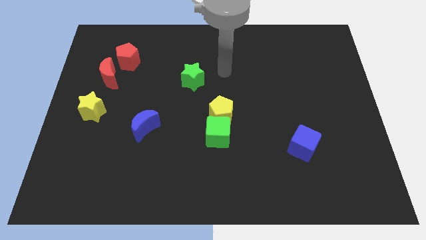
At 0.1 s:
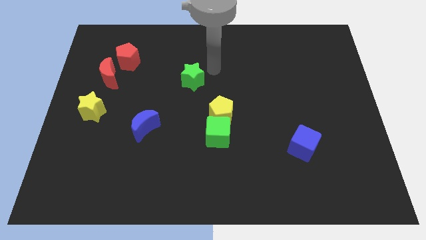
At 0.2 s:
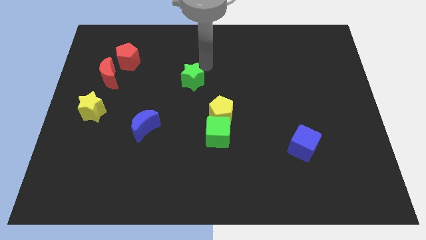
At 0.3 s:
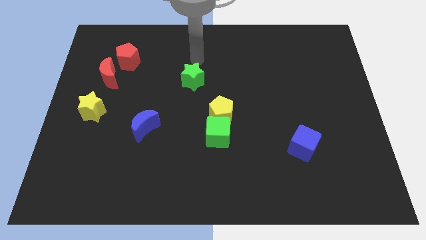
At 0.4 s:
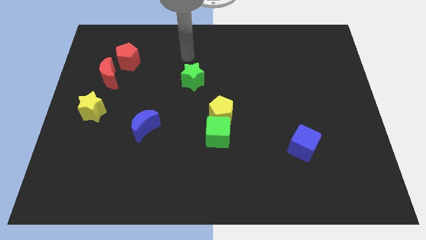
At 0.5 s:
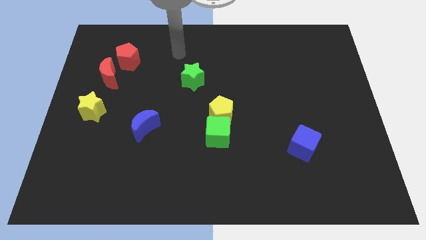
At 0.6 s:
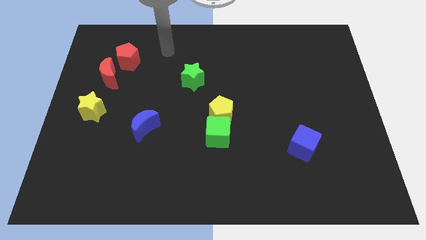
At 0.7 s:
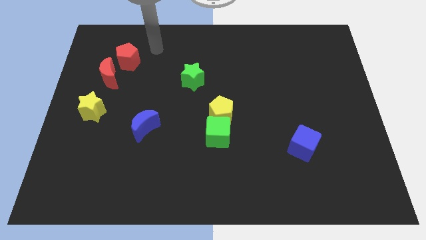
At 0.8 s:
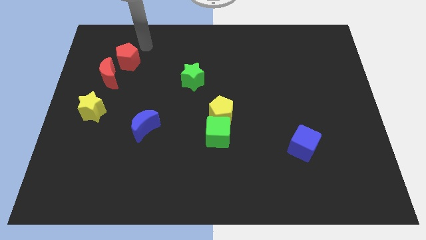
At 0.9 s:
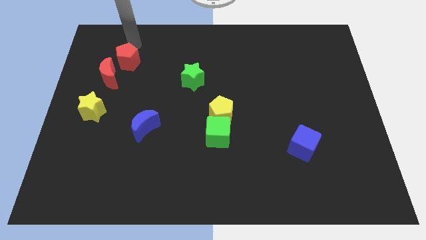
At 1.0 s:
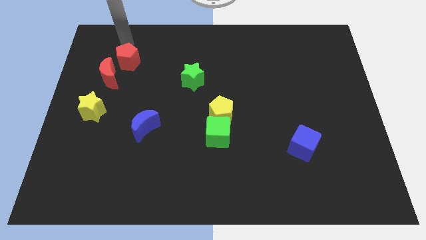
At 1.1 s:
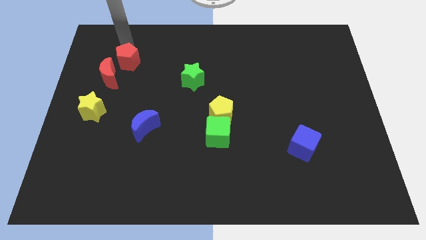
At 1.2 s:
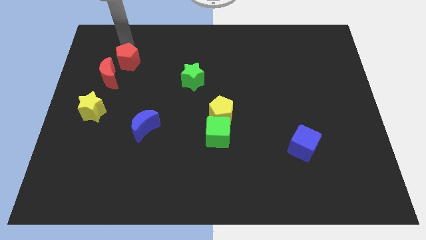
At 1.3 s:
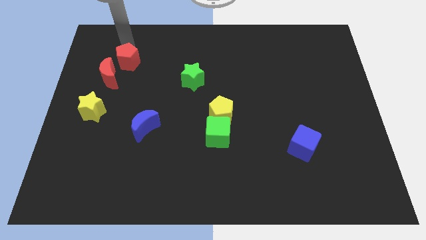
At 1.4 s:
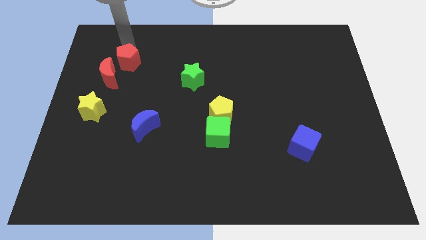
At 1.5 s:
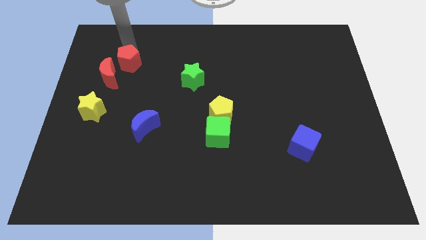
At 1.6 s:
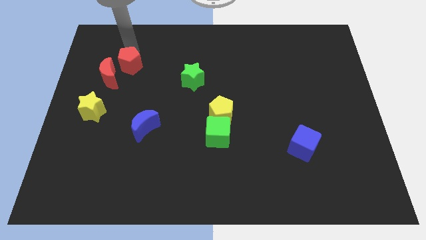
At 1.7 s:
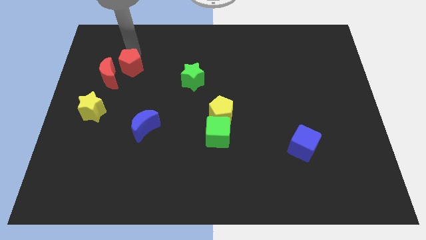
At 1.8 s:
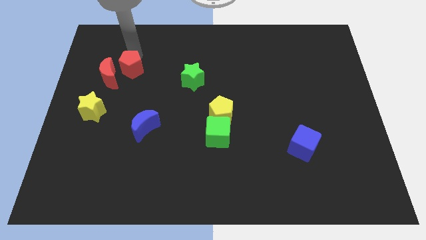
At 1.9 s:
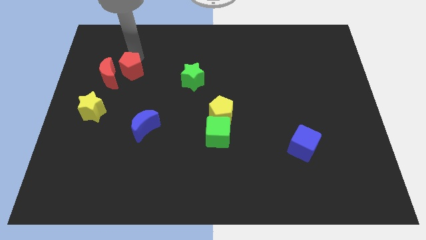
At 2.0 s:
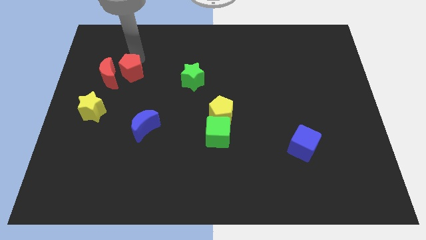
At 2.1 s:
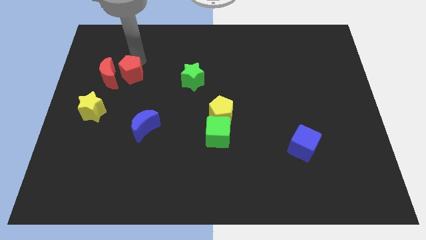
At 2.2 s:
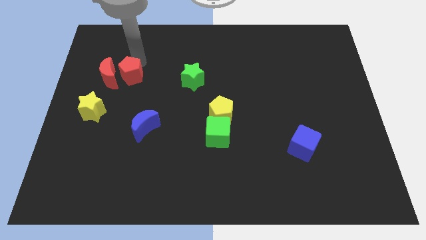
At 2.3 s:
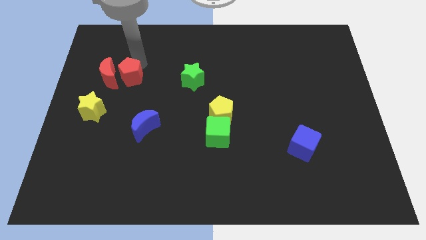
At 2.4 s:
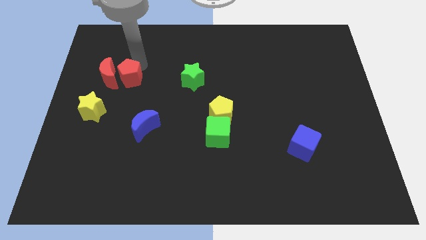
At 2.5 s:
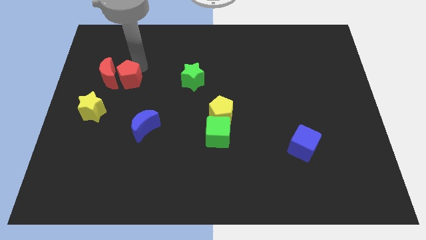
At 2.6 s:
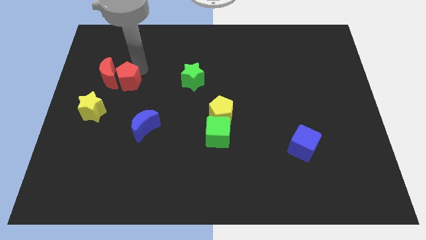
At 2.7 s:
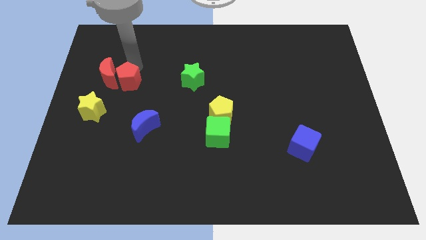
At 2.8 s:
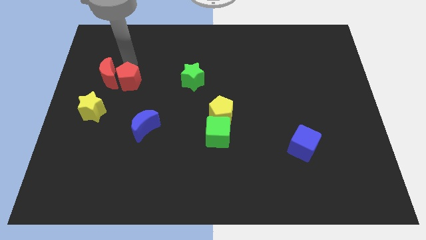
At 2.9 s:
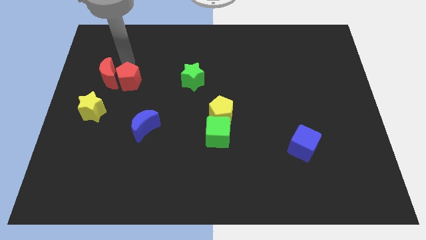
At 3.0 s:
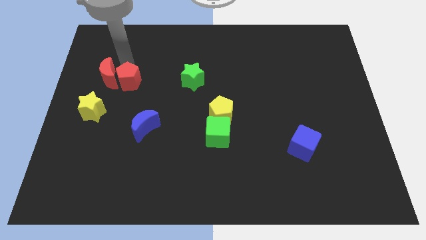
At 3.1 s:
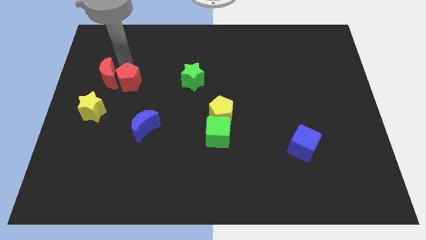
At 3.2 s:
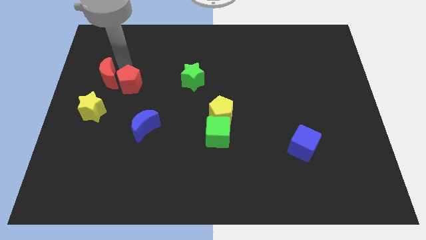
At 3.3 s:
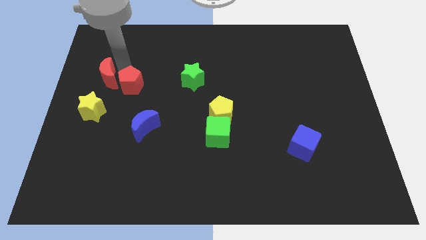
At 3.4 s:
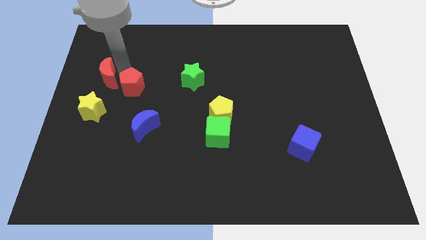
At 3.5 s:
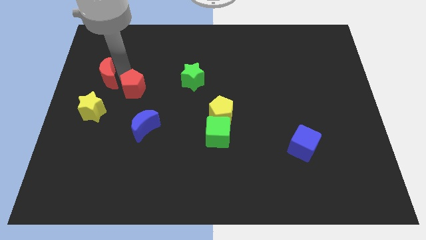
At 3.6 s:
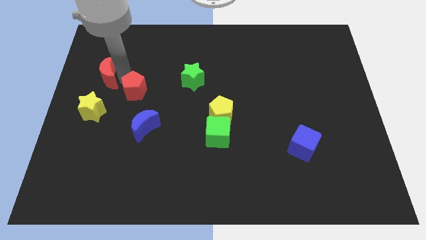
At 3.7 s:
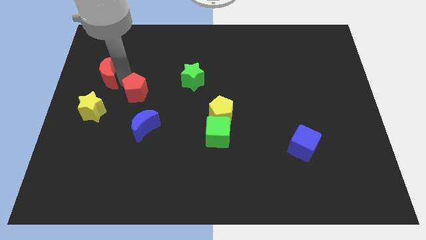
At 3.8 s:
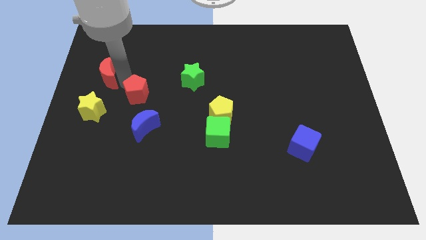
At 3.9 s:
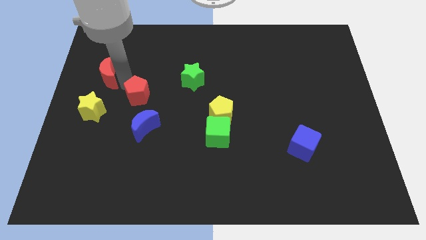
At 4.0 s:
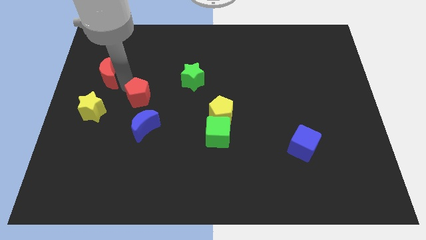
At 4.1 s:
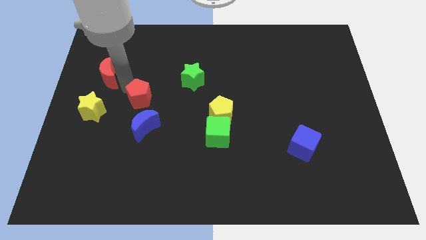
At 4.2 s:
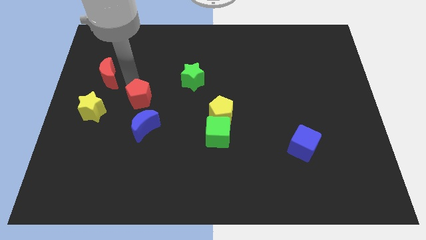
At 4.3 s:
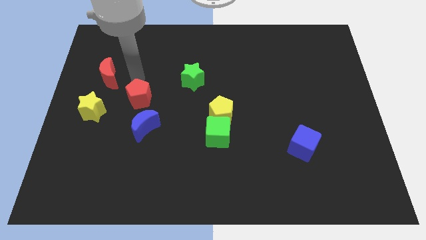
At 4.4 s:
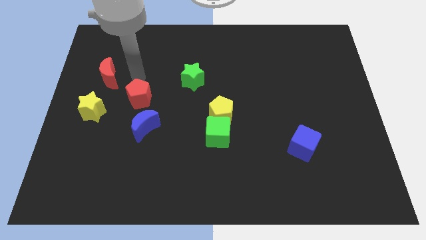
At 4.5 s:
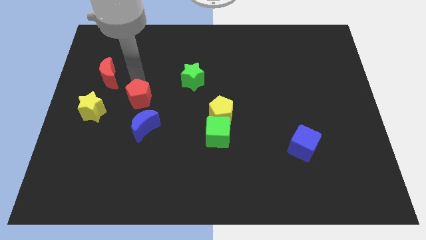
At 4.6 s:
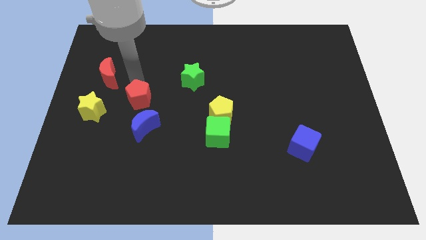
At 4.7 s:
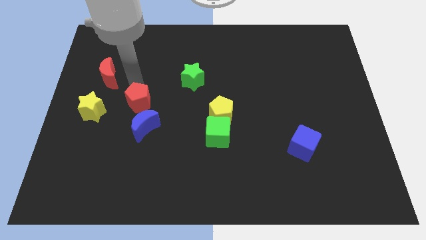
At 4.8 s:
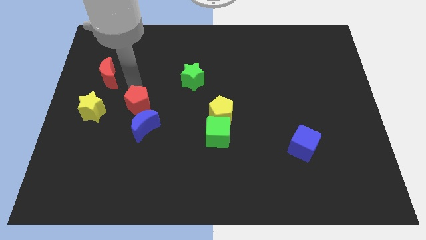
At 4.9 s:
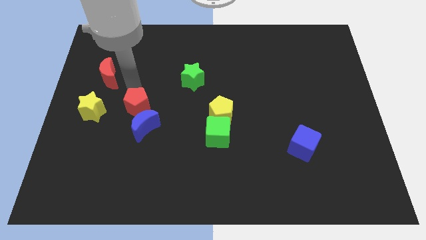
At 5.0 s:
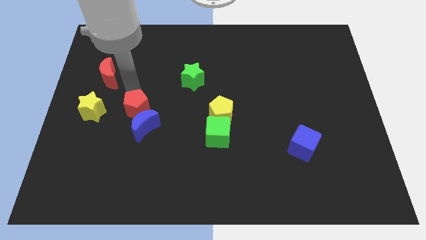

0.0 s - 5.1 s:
push the red pentagon to the blue moon

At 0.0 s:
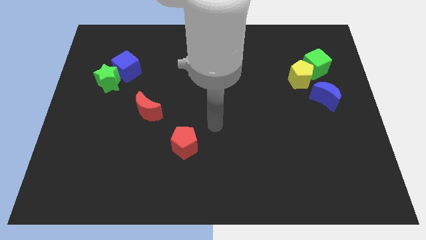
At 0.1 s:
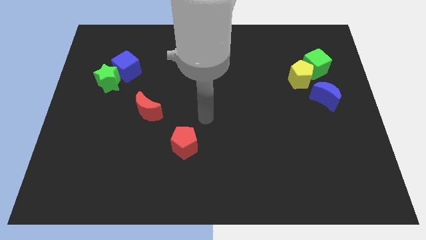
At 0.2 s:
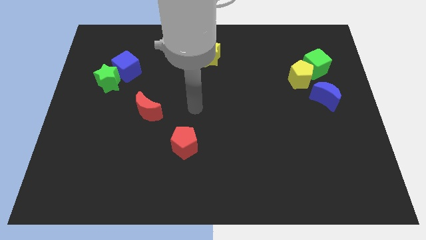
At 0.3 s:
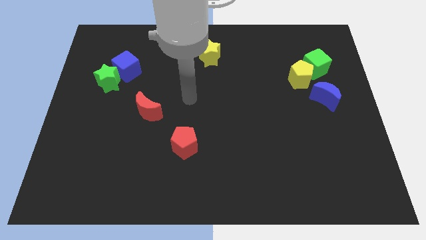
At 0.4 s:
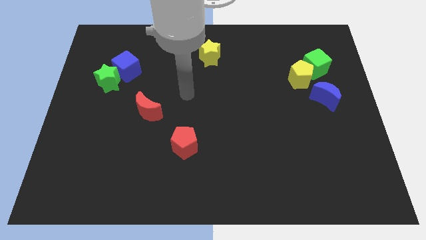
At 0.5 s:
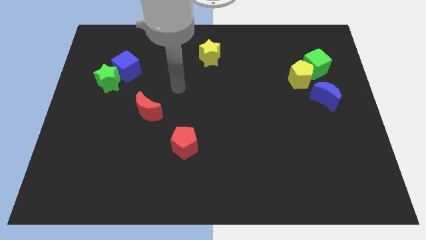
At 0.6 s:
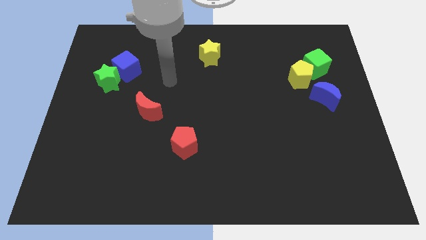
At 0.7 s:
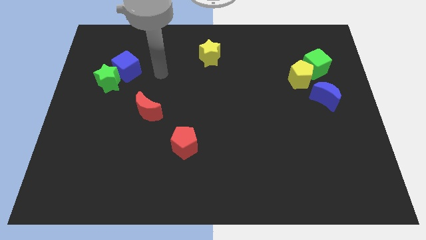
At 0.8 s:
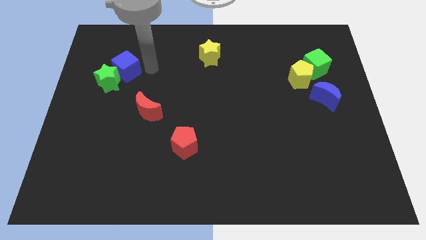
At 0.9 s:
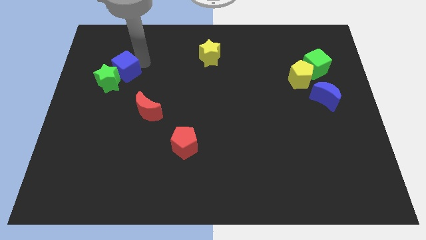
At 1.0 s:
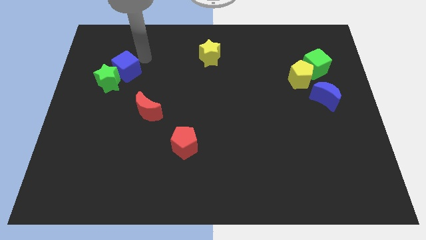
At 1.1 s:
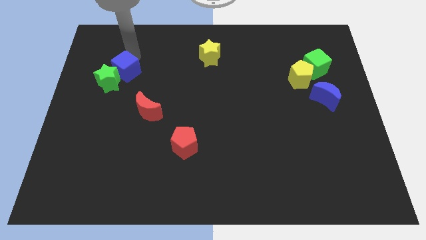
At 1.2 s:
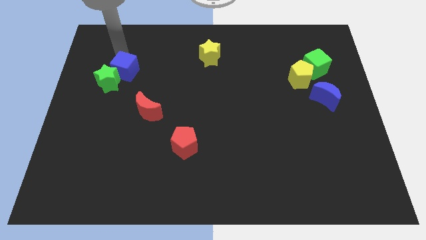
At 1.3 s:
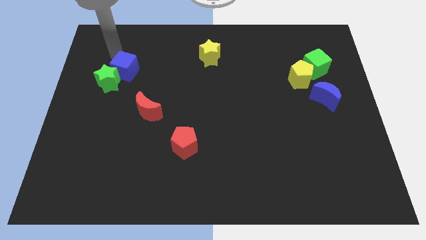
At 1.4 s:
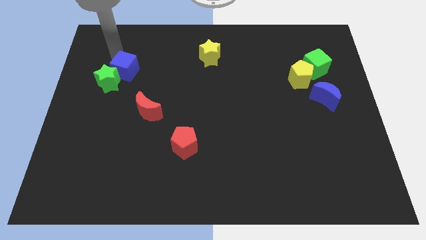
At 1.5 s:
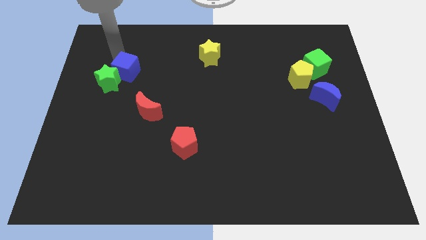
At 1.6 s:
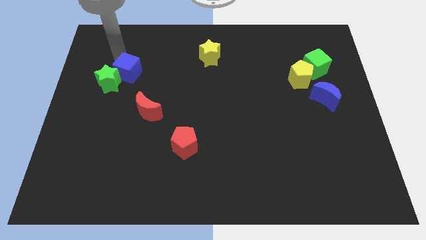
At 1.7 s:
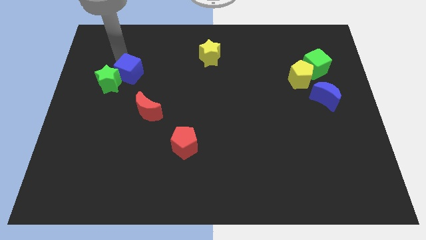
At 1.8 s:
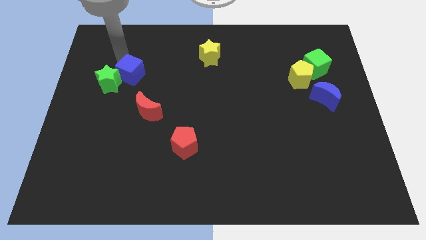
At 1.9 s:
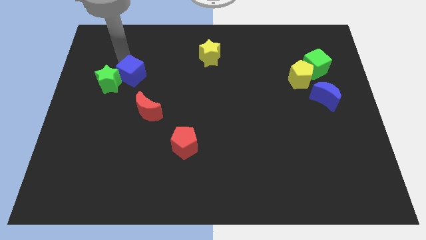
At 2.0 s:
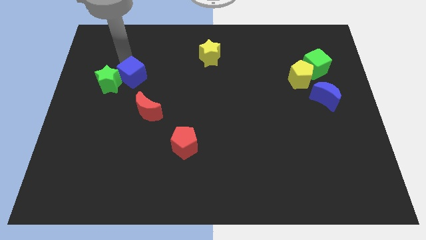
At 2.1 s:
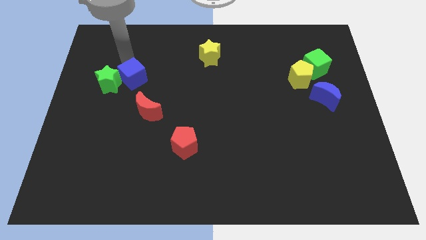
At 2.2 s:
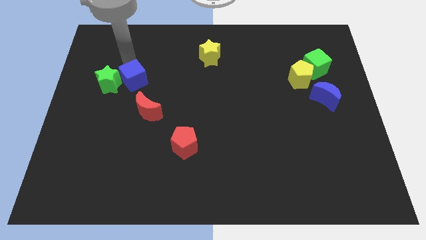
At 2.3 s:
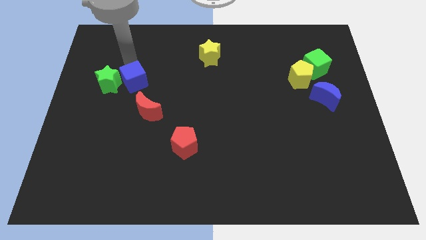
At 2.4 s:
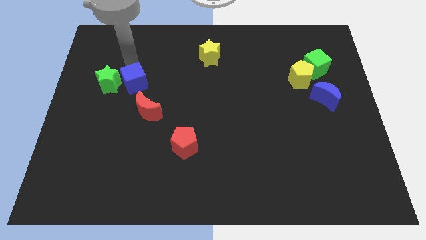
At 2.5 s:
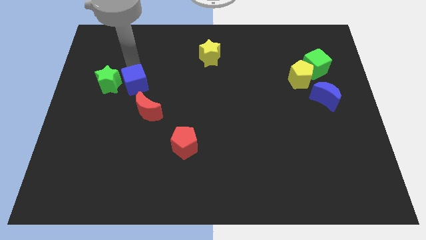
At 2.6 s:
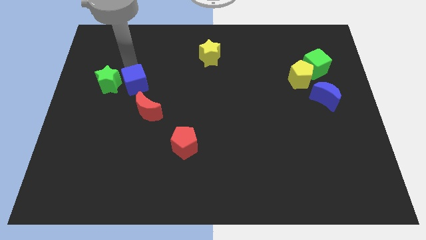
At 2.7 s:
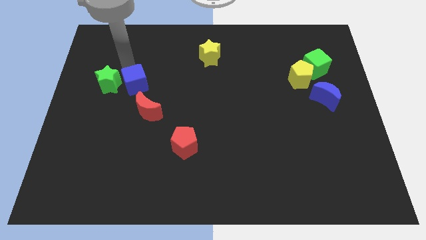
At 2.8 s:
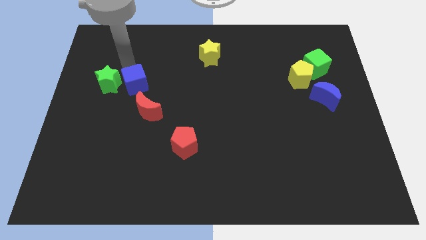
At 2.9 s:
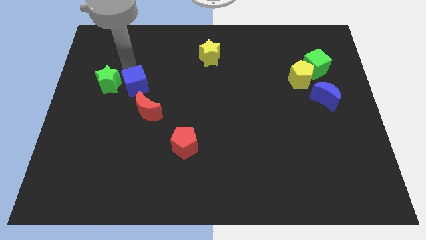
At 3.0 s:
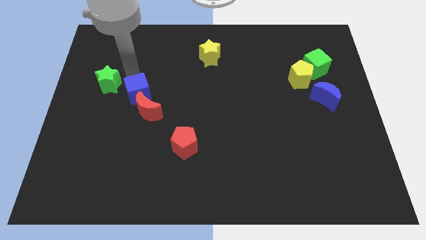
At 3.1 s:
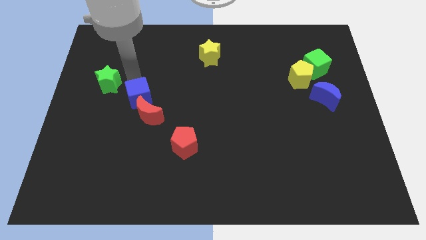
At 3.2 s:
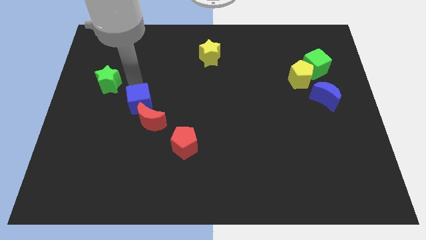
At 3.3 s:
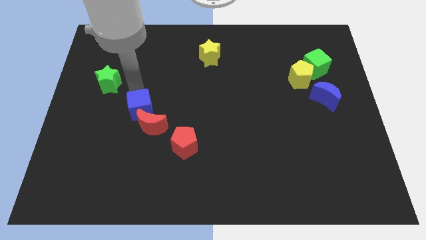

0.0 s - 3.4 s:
push the blue cube to the red moon
